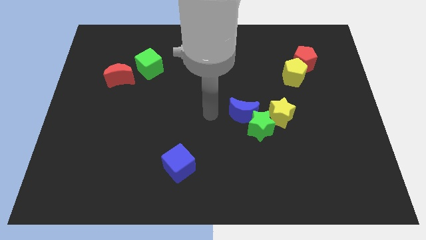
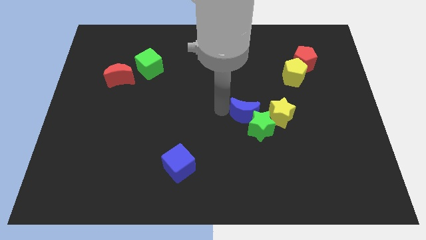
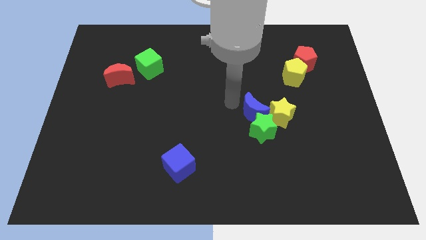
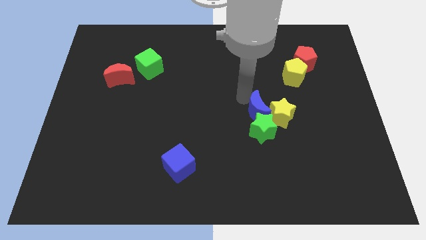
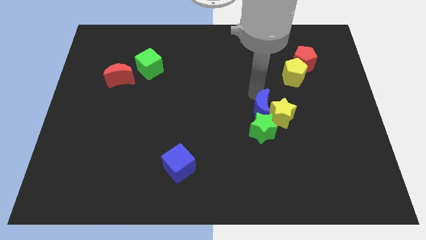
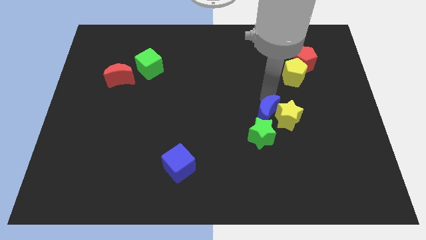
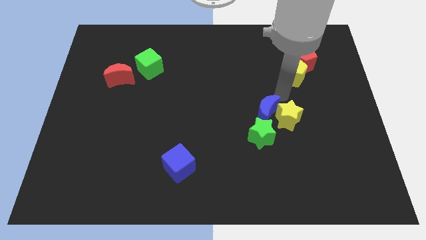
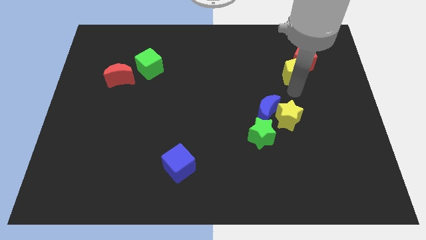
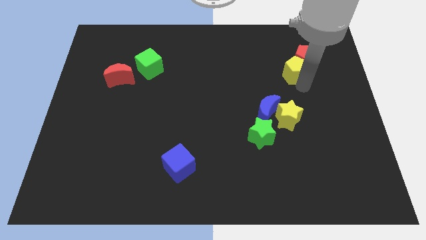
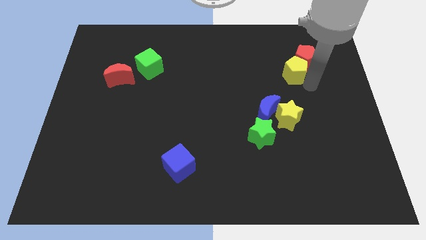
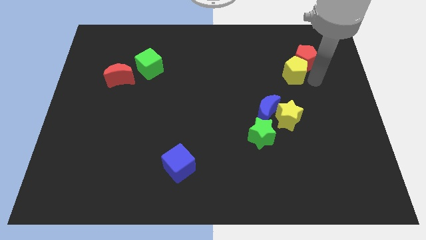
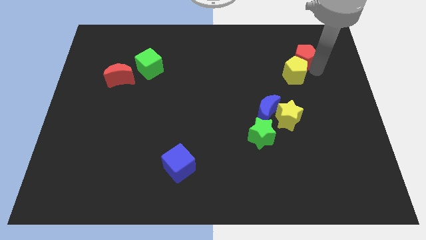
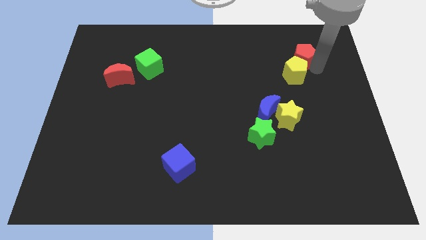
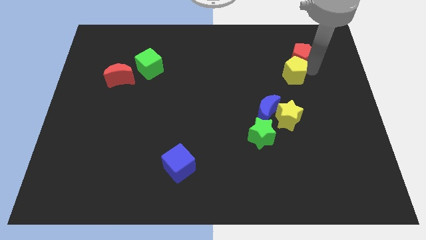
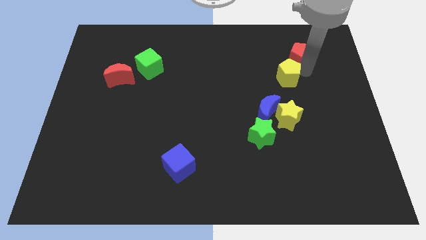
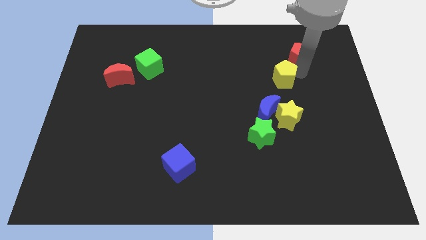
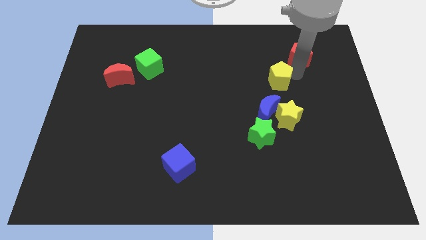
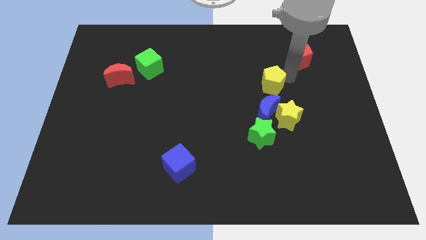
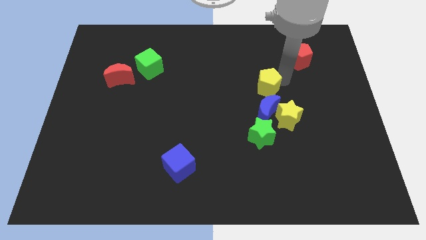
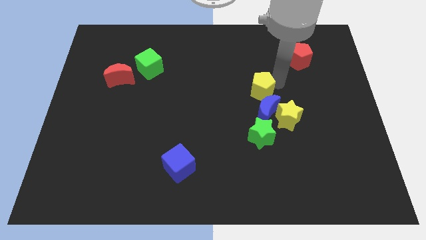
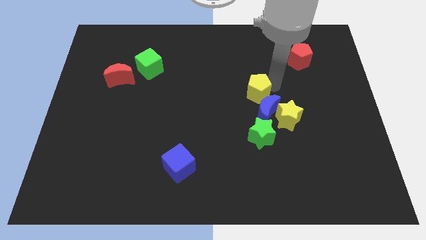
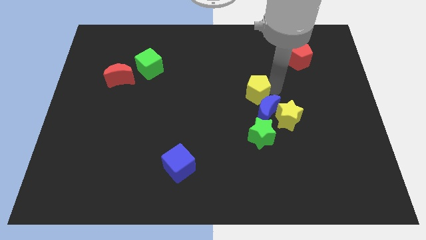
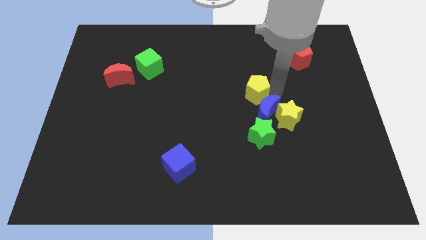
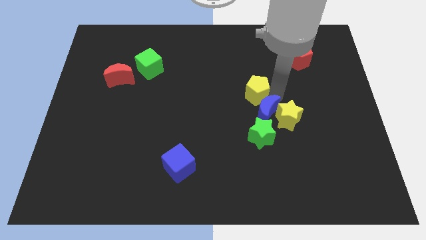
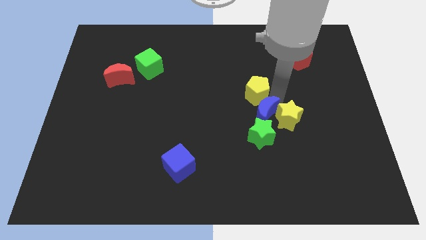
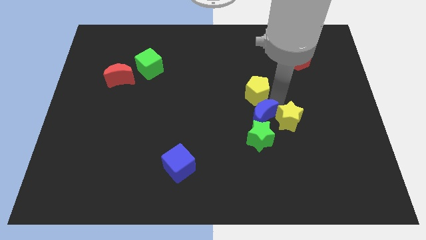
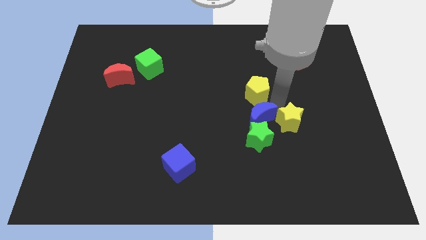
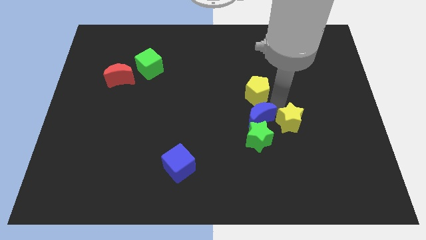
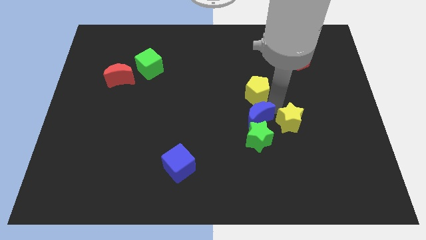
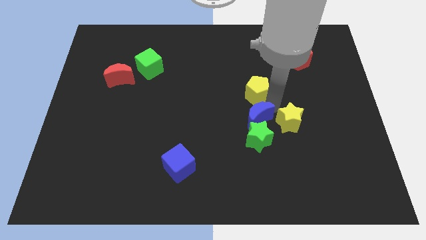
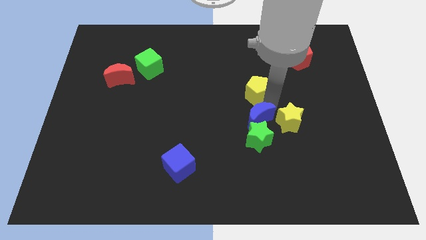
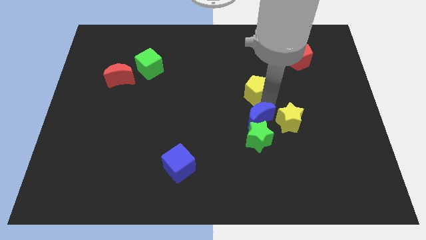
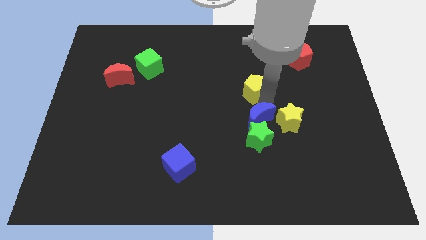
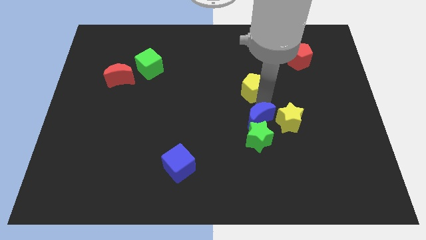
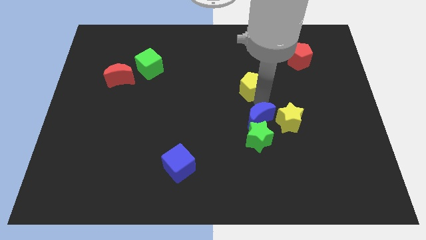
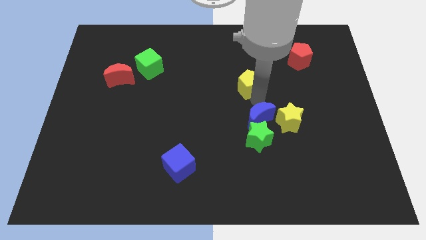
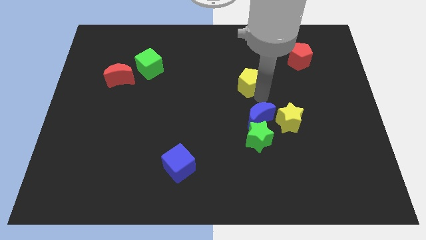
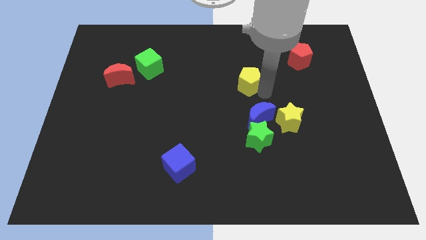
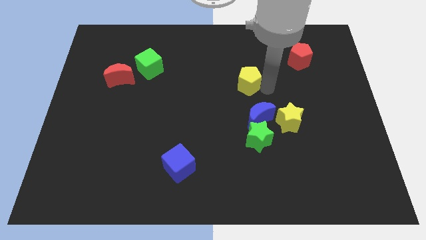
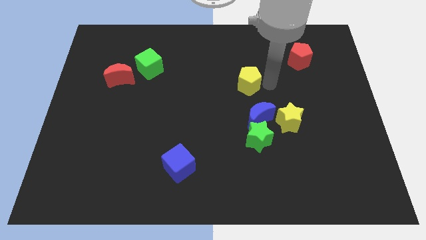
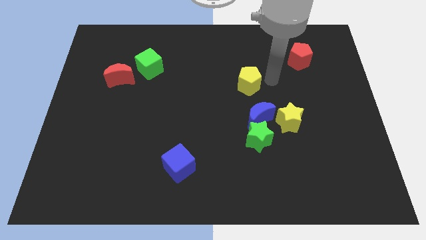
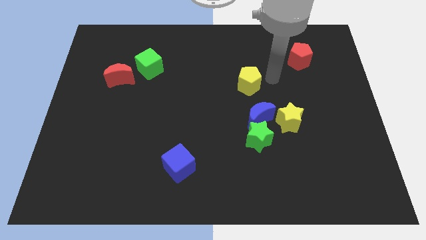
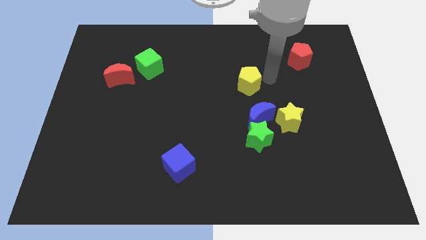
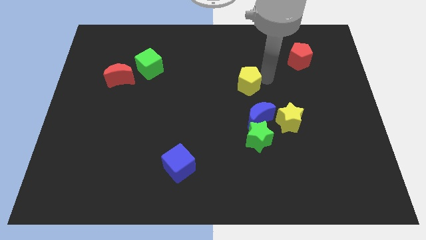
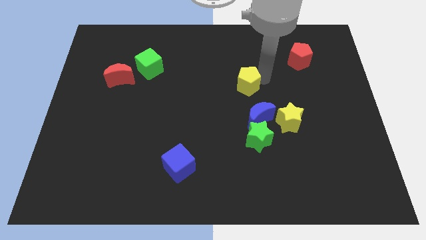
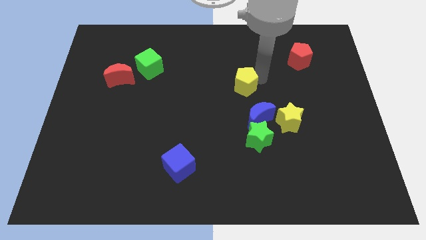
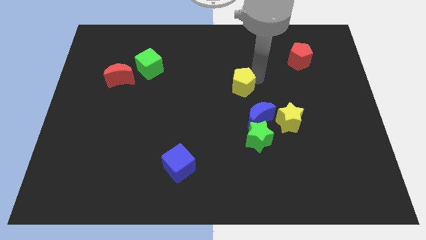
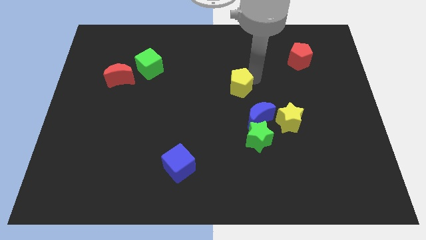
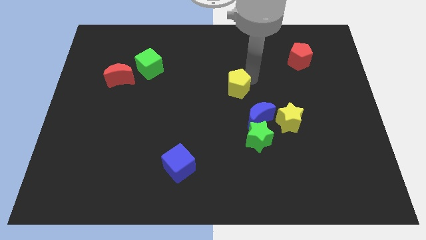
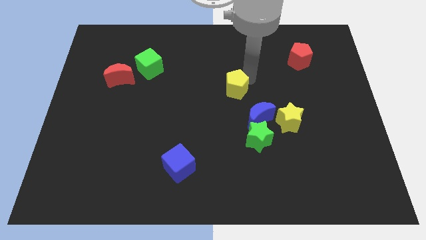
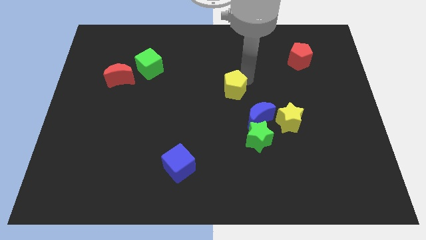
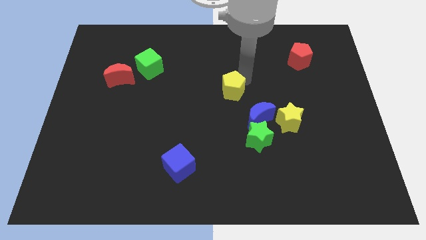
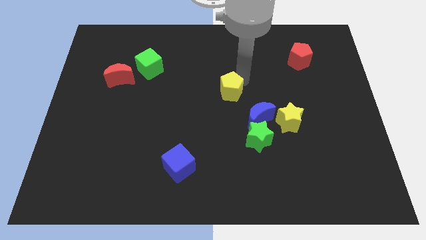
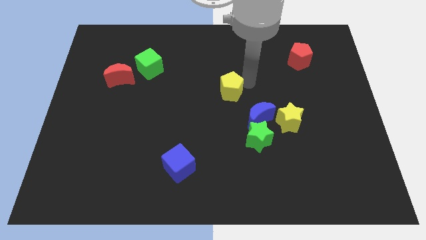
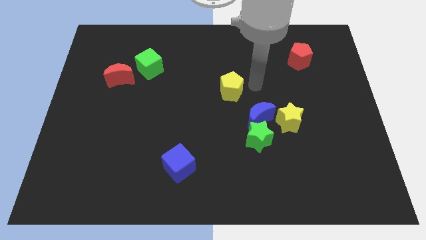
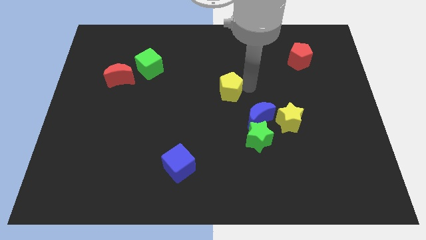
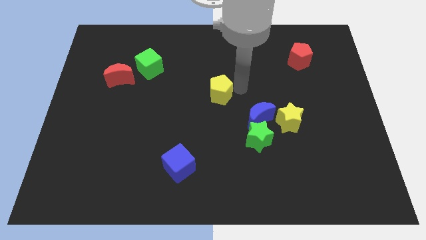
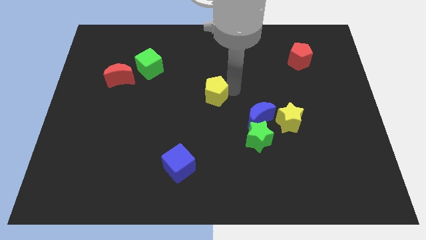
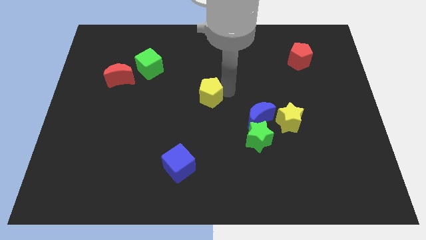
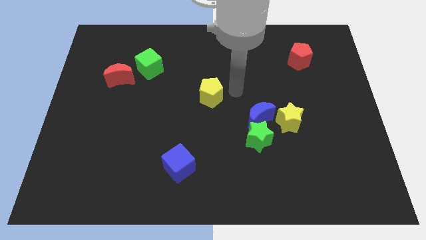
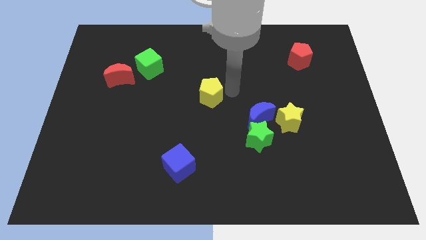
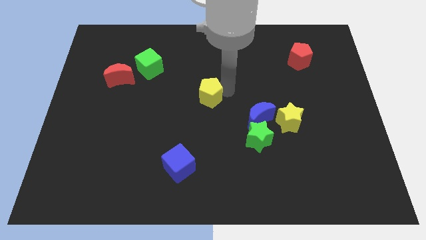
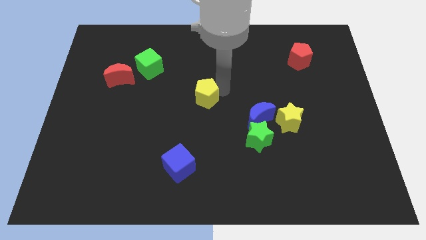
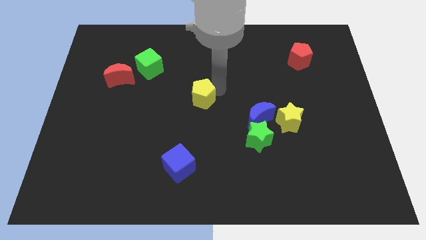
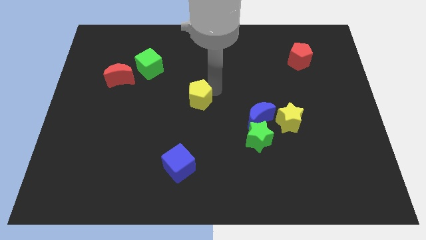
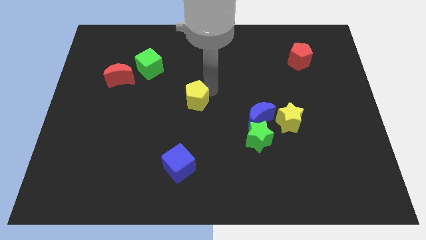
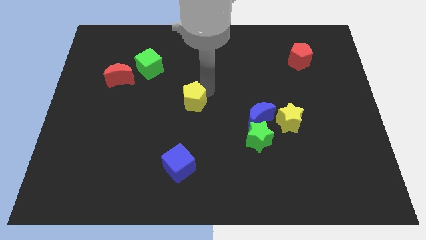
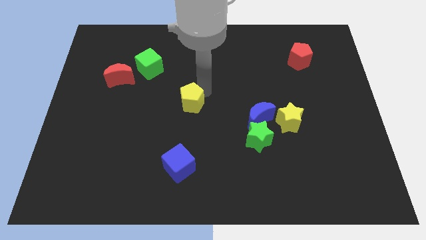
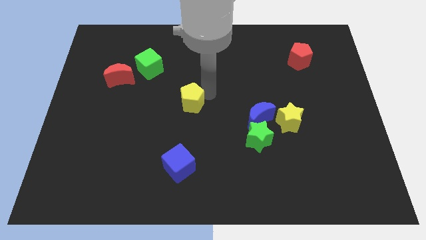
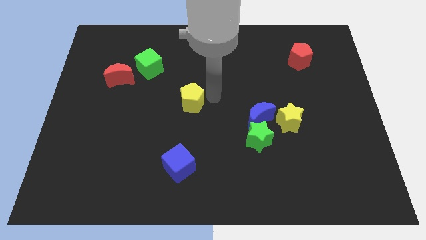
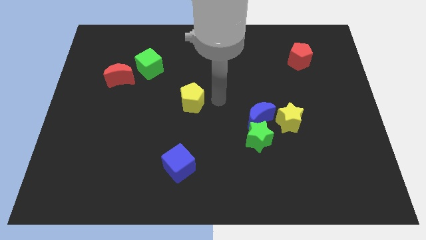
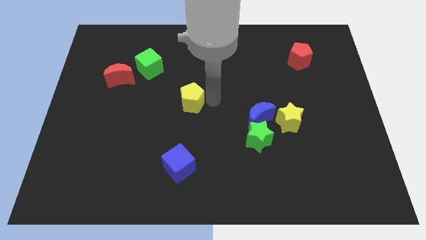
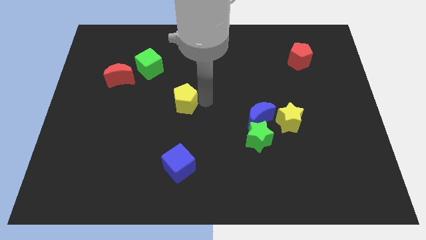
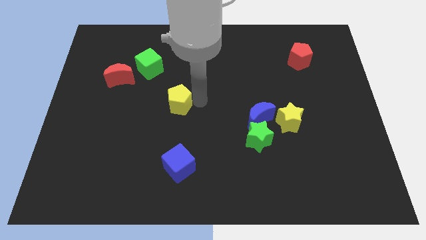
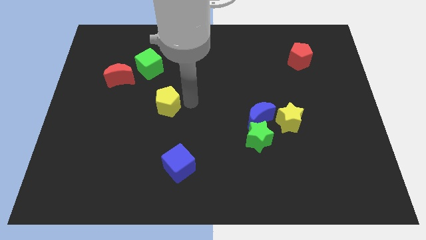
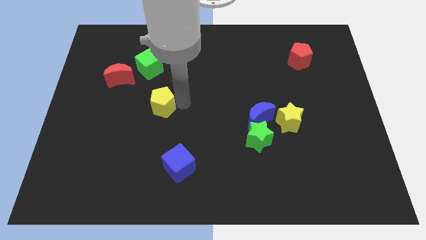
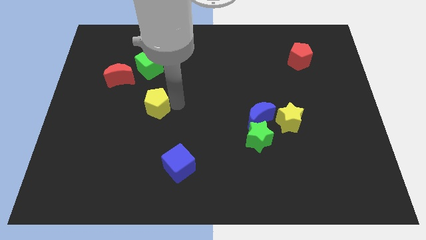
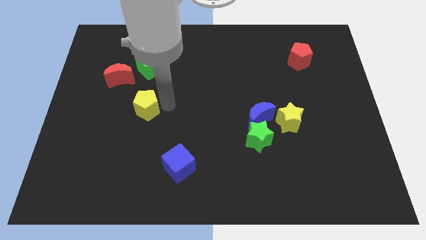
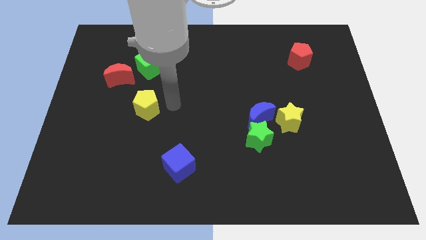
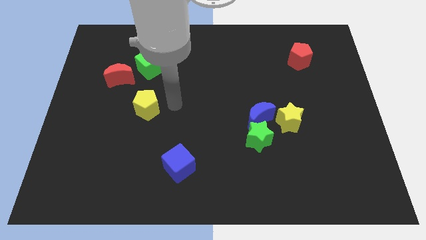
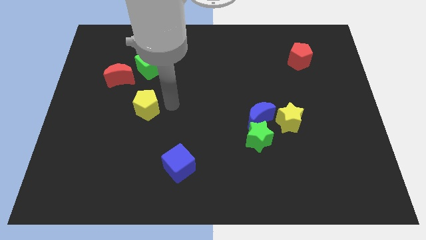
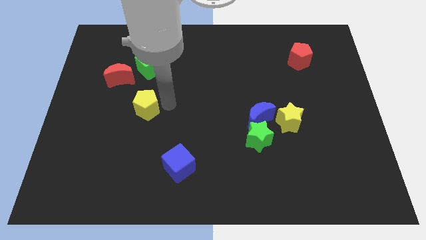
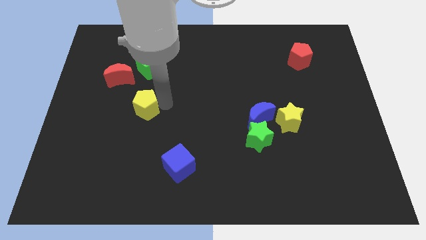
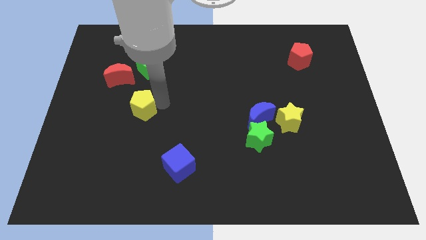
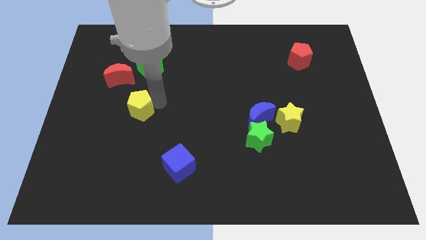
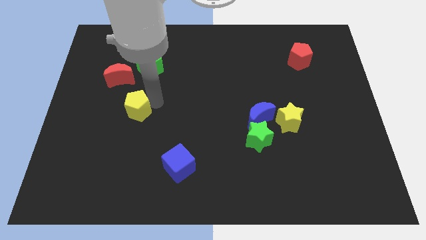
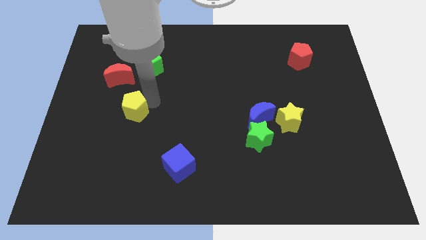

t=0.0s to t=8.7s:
push the yellow pentagon to the bottom side of the red moon
